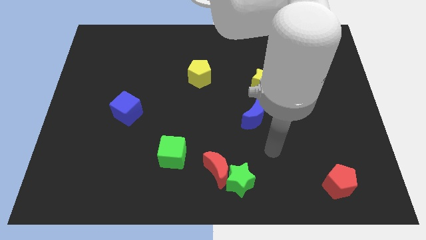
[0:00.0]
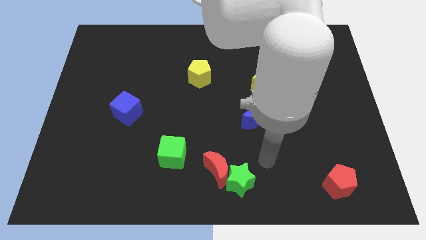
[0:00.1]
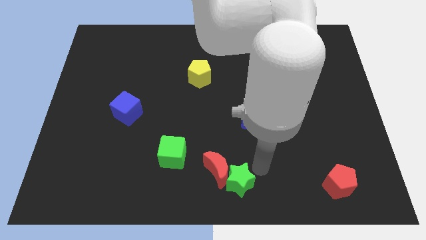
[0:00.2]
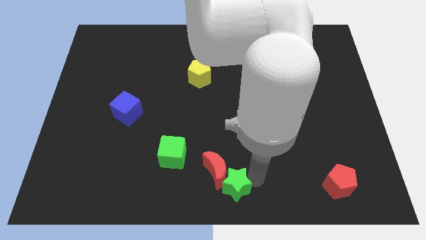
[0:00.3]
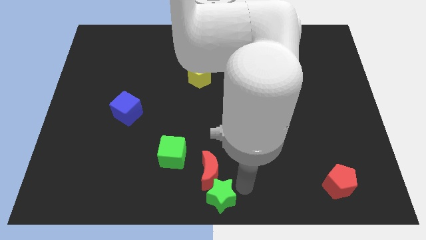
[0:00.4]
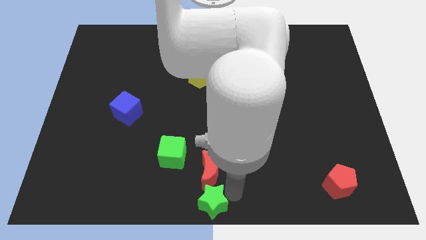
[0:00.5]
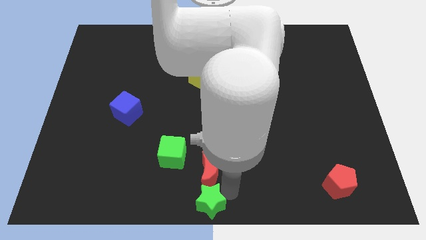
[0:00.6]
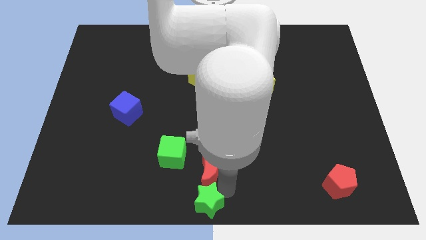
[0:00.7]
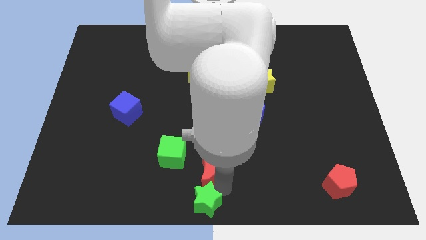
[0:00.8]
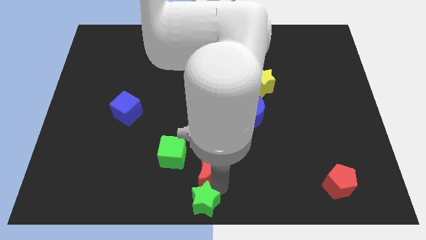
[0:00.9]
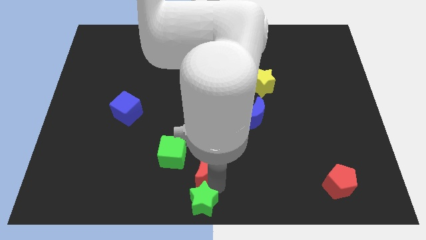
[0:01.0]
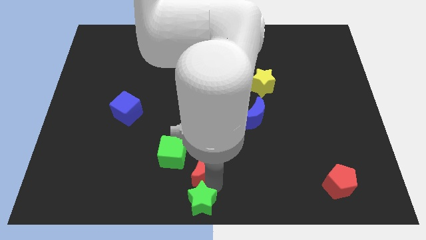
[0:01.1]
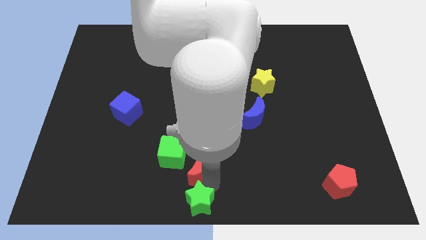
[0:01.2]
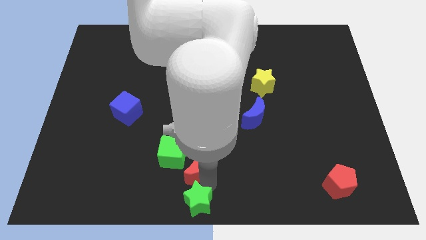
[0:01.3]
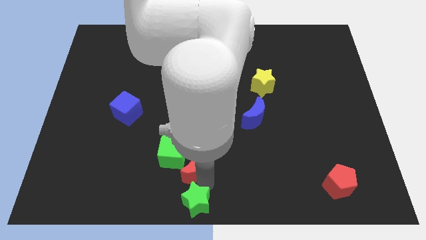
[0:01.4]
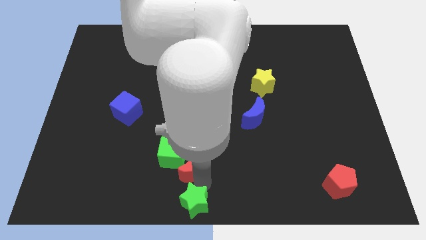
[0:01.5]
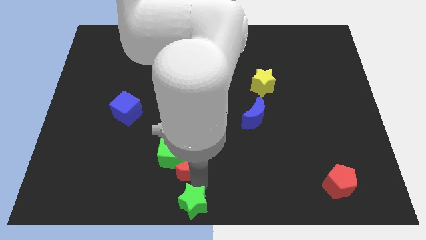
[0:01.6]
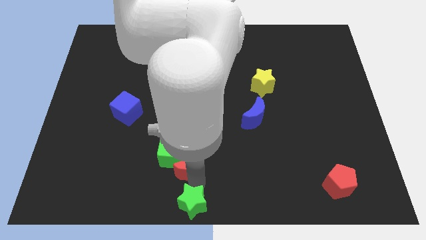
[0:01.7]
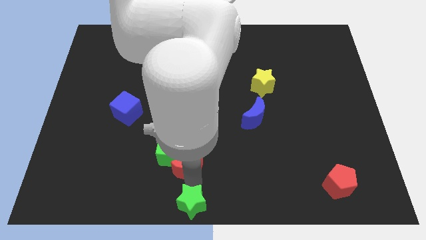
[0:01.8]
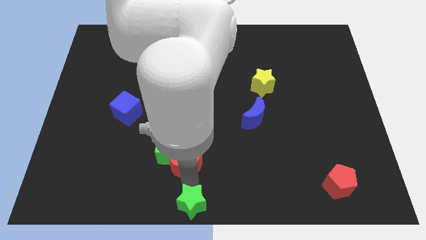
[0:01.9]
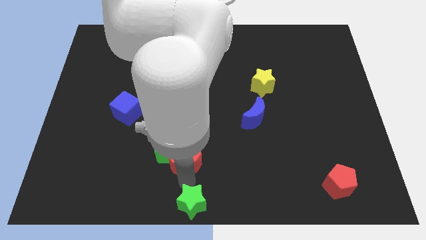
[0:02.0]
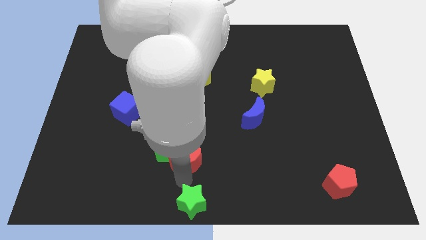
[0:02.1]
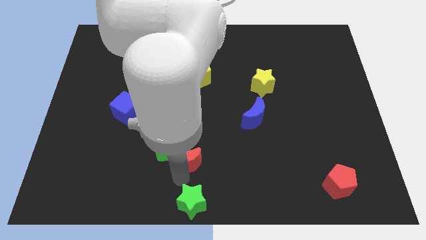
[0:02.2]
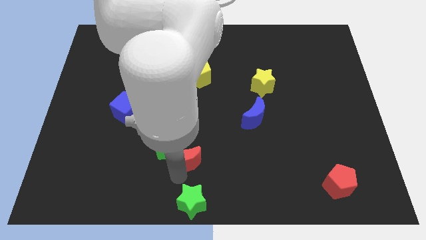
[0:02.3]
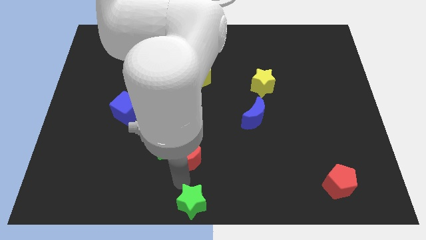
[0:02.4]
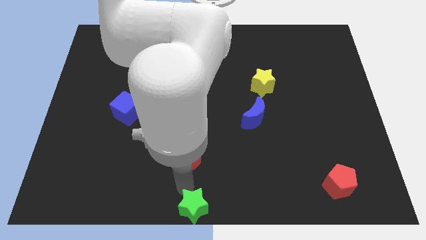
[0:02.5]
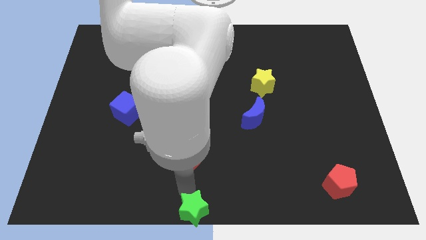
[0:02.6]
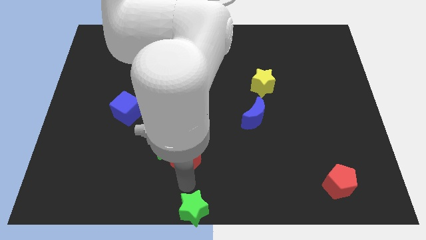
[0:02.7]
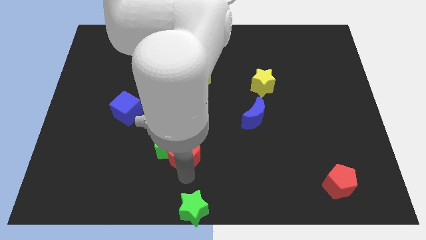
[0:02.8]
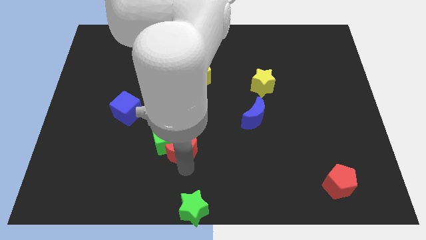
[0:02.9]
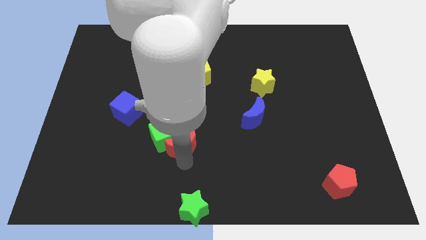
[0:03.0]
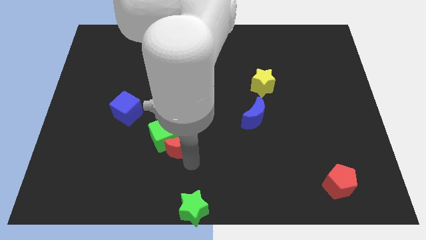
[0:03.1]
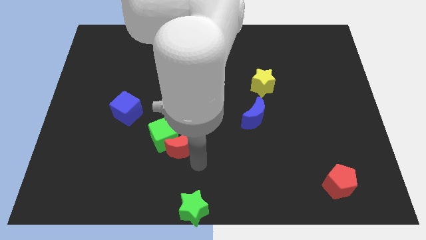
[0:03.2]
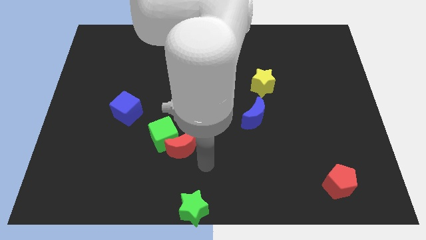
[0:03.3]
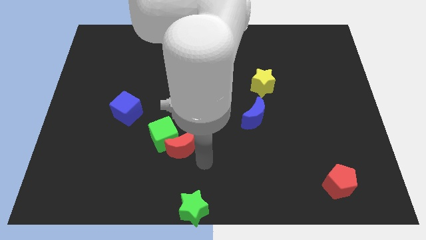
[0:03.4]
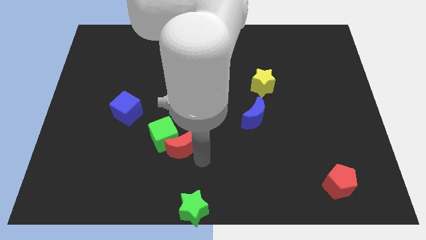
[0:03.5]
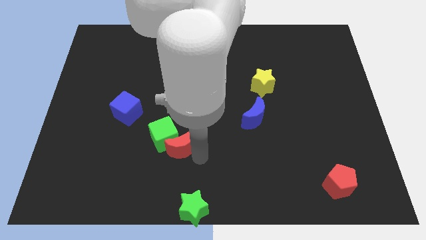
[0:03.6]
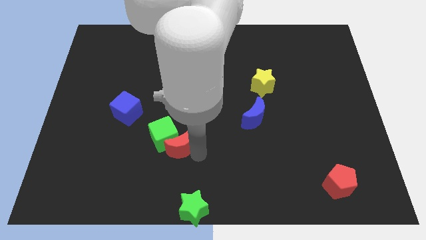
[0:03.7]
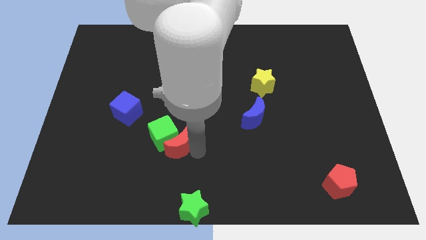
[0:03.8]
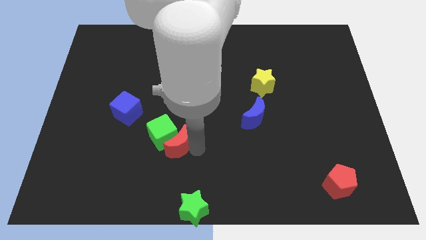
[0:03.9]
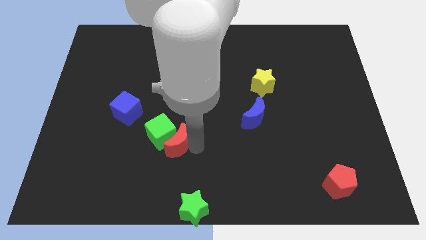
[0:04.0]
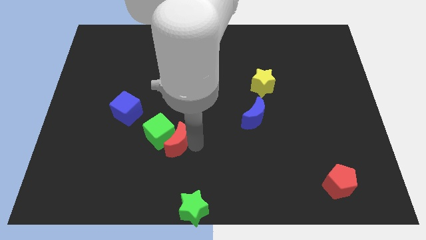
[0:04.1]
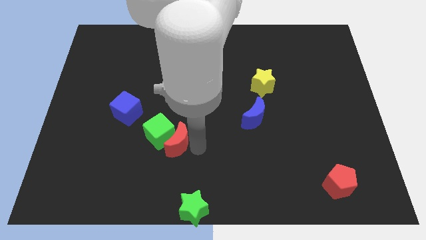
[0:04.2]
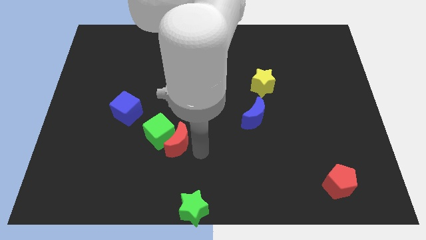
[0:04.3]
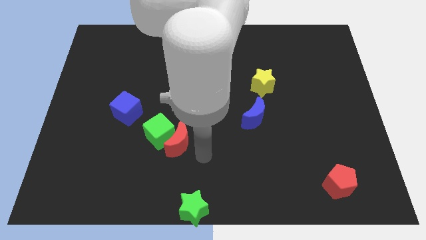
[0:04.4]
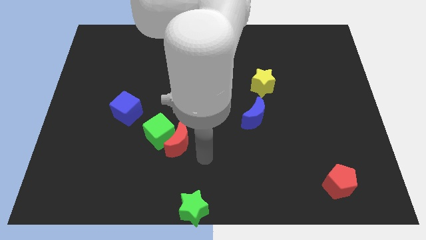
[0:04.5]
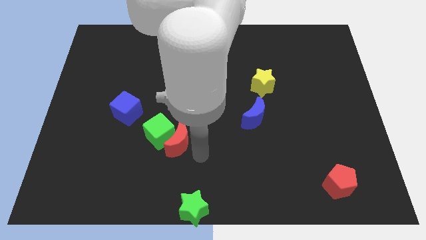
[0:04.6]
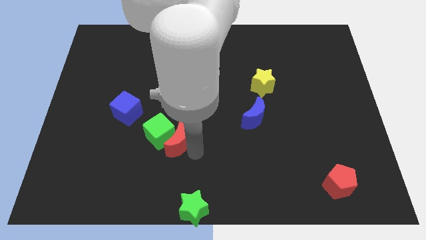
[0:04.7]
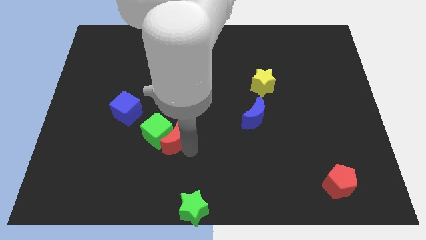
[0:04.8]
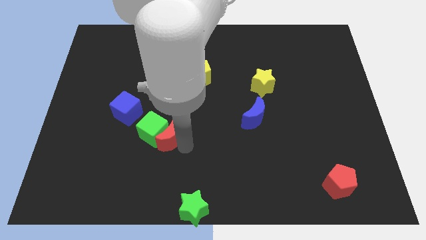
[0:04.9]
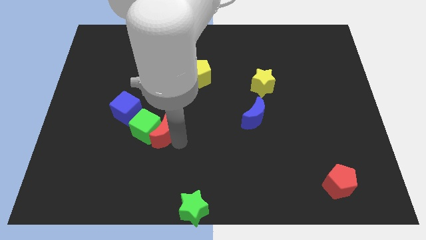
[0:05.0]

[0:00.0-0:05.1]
put the red moon diagonally down and to the right of the blue cube

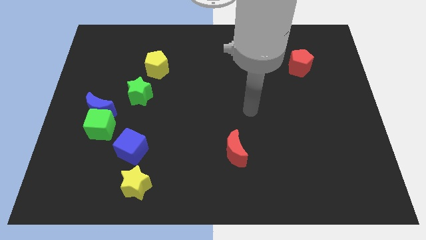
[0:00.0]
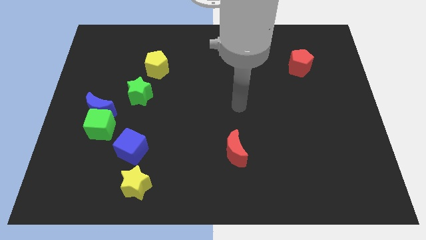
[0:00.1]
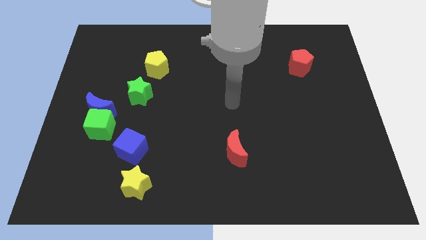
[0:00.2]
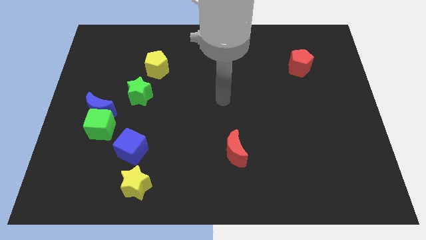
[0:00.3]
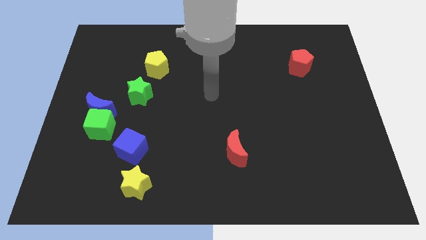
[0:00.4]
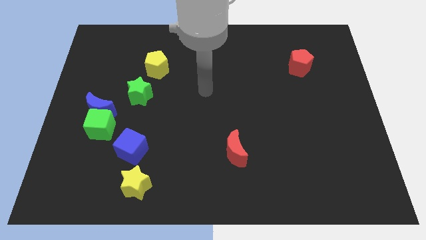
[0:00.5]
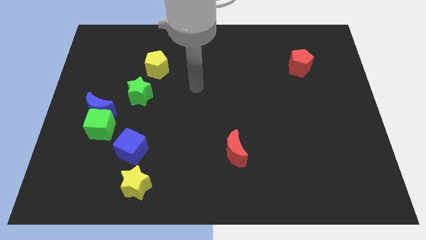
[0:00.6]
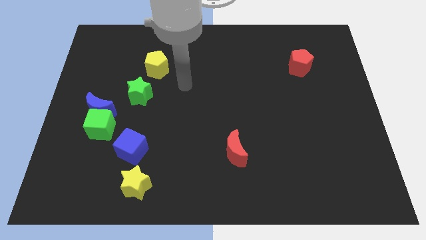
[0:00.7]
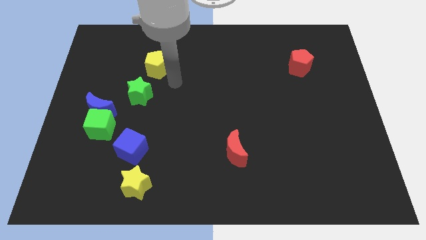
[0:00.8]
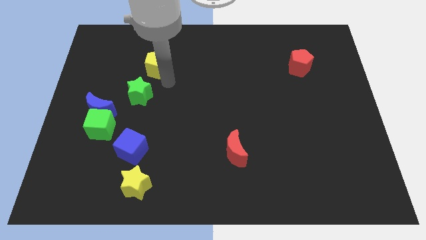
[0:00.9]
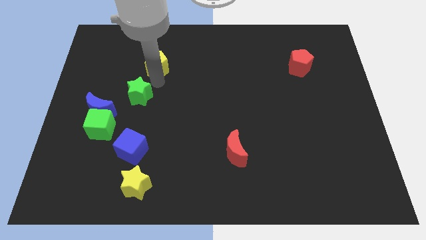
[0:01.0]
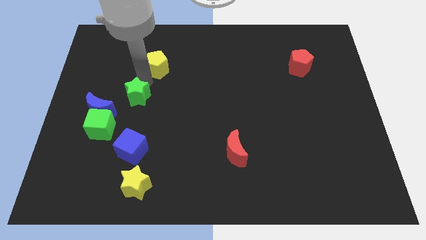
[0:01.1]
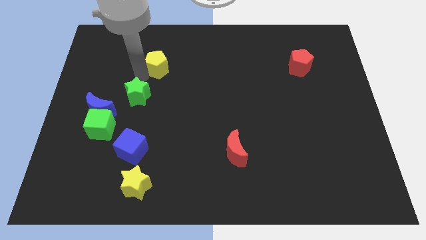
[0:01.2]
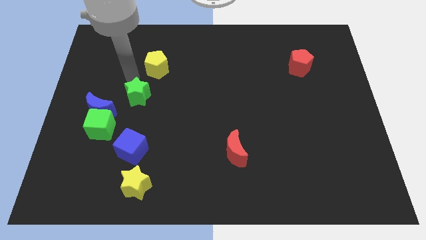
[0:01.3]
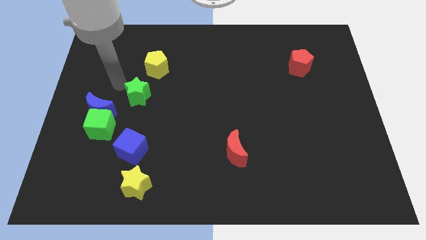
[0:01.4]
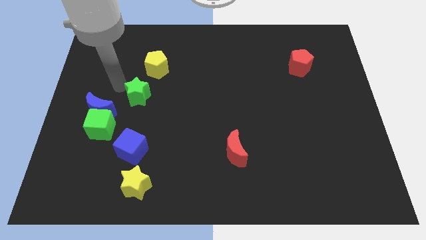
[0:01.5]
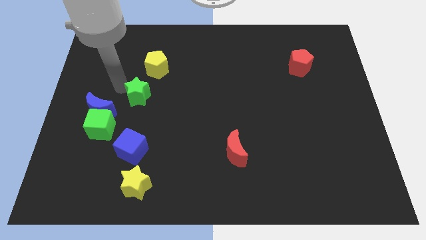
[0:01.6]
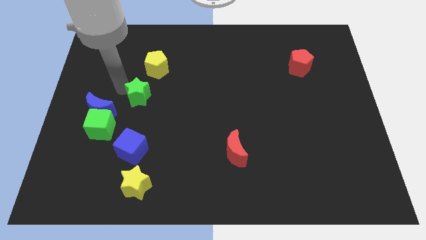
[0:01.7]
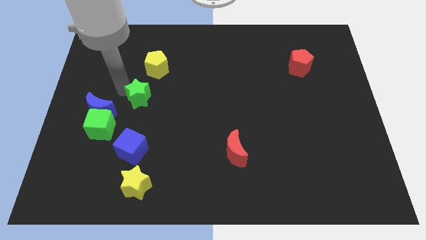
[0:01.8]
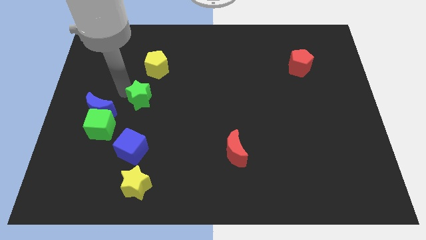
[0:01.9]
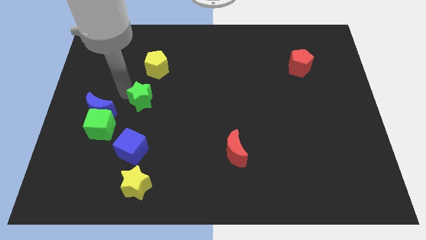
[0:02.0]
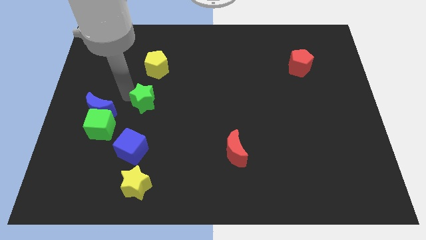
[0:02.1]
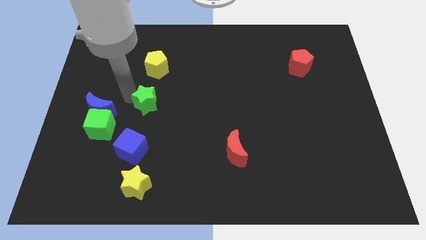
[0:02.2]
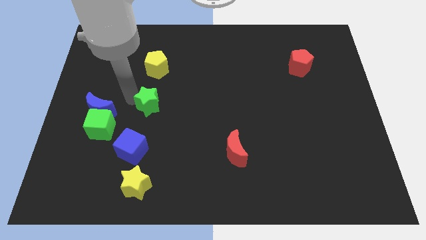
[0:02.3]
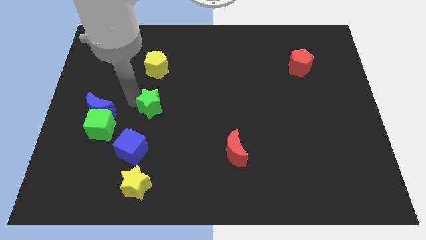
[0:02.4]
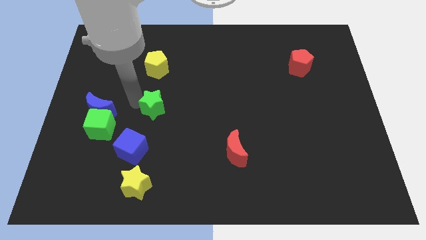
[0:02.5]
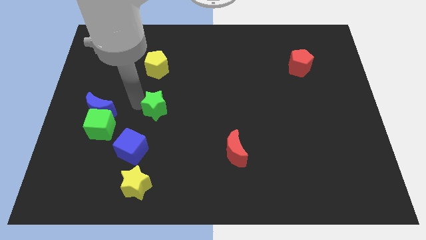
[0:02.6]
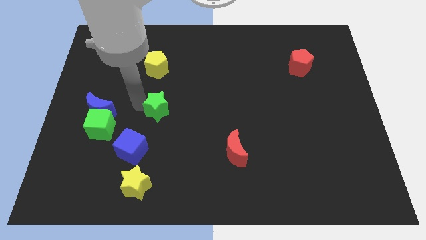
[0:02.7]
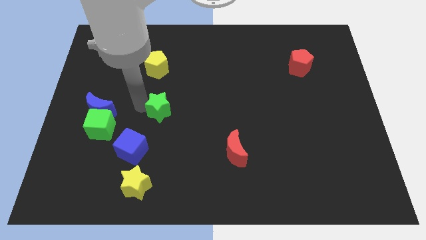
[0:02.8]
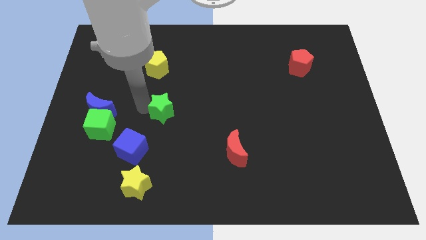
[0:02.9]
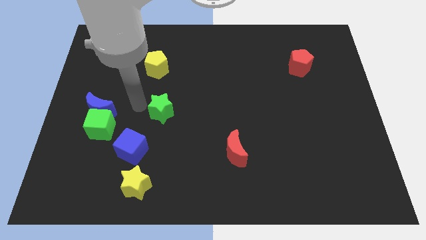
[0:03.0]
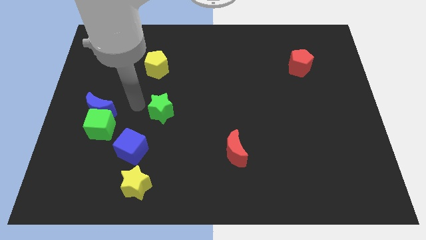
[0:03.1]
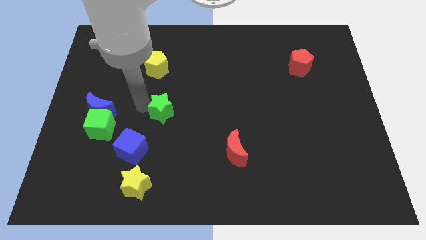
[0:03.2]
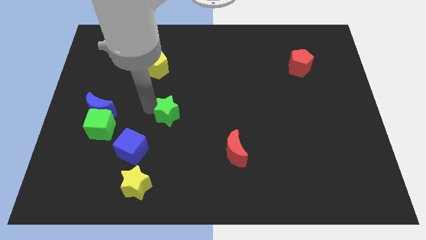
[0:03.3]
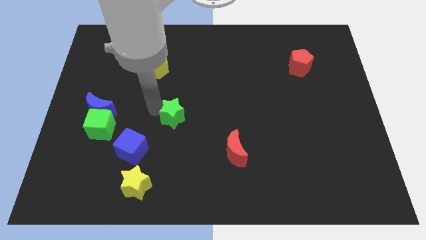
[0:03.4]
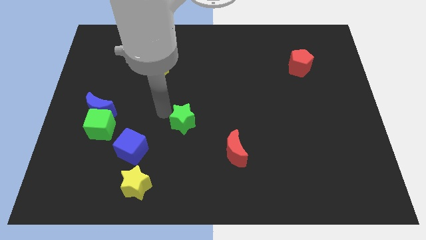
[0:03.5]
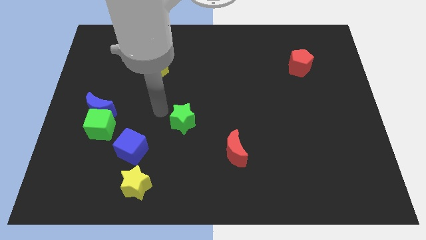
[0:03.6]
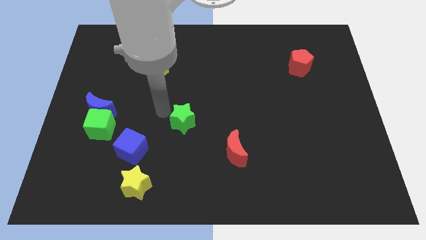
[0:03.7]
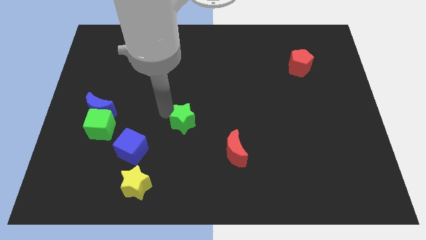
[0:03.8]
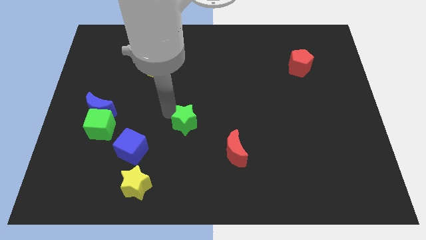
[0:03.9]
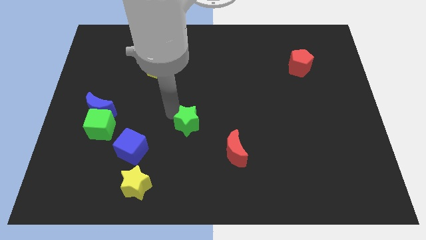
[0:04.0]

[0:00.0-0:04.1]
push the green star diagonally up and to the left of the red moon
